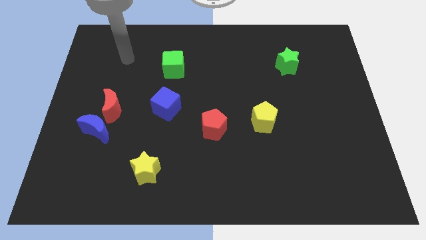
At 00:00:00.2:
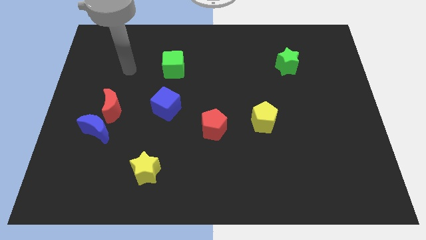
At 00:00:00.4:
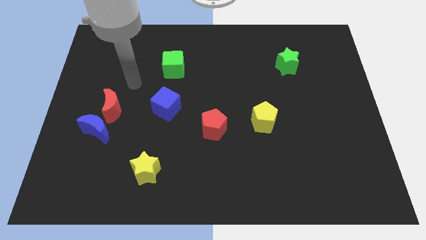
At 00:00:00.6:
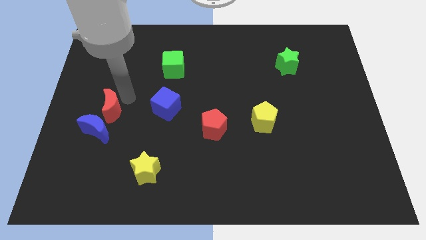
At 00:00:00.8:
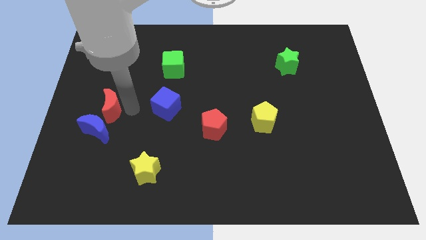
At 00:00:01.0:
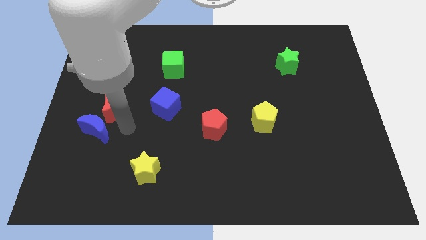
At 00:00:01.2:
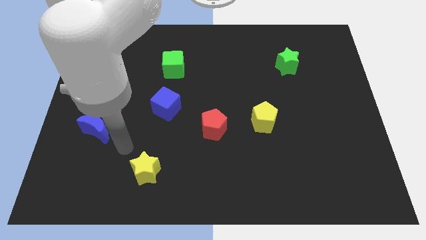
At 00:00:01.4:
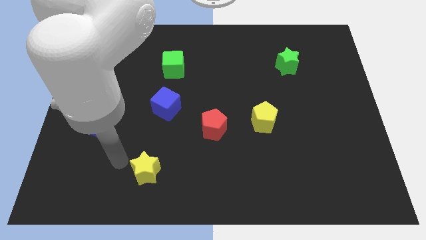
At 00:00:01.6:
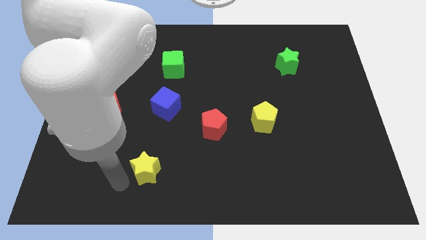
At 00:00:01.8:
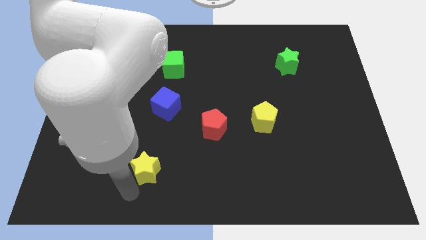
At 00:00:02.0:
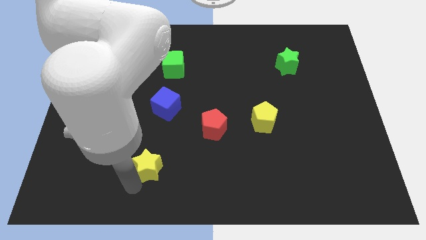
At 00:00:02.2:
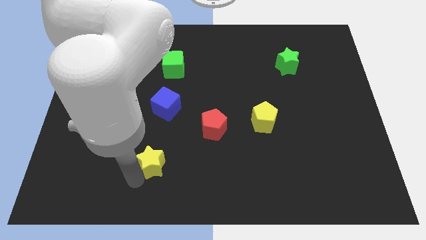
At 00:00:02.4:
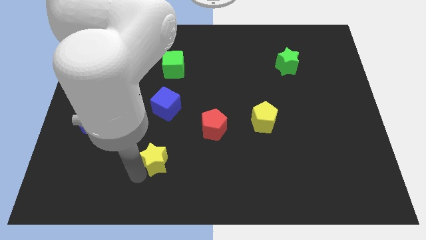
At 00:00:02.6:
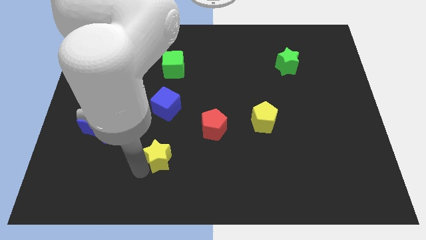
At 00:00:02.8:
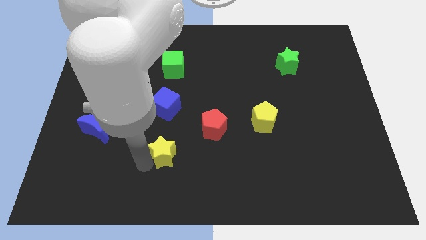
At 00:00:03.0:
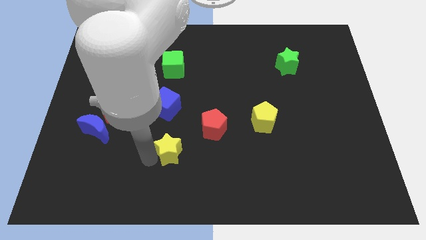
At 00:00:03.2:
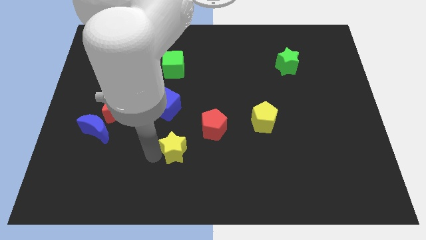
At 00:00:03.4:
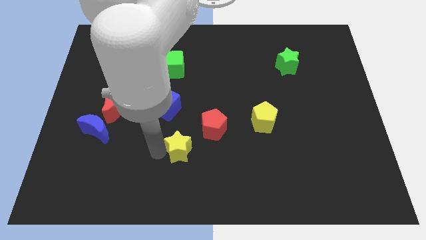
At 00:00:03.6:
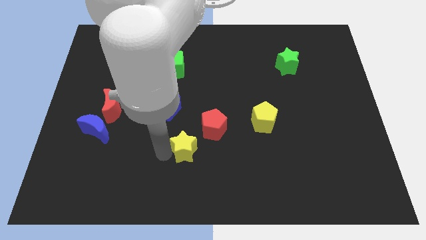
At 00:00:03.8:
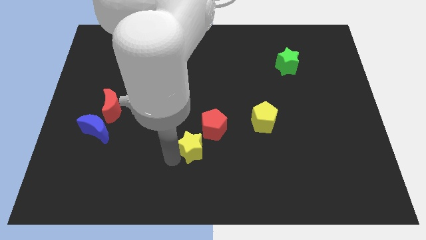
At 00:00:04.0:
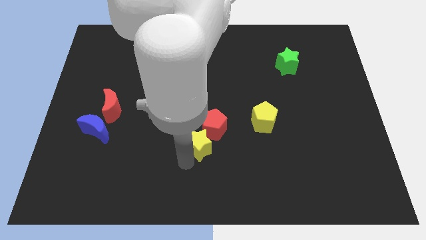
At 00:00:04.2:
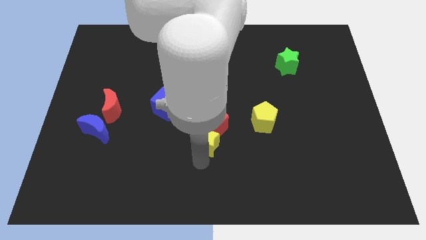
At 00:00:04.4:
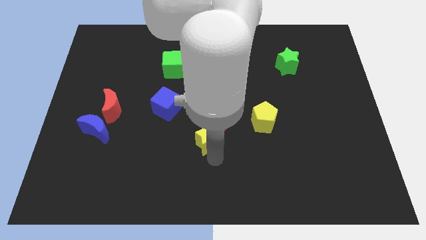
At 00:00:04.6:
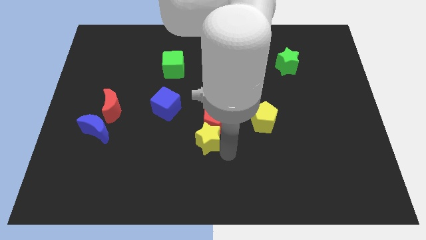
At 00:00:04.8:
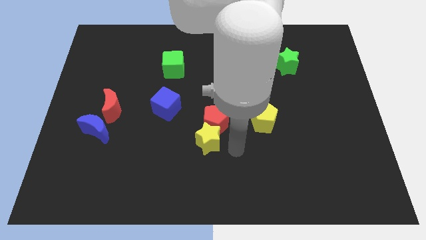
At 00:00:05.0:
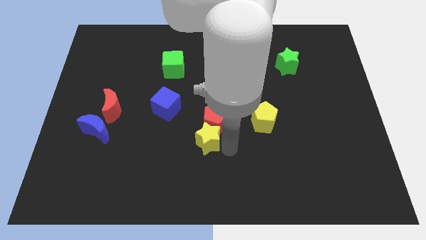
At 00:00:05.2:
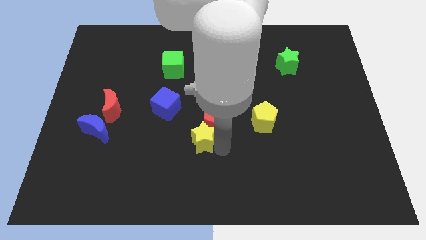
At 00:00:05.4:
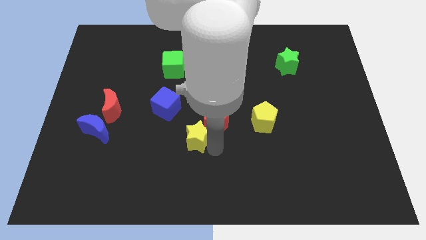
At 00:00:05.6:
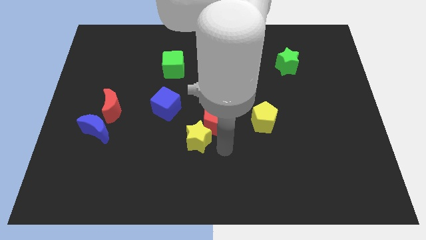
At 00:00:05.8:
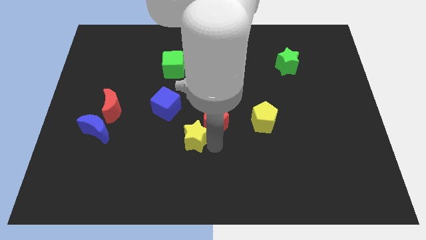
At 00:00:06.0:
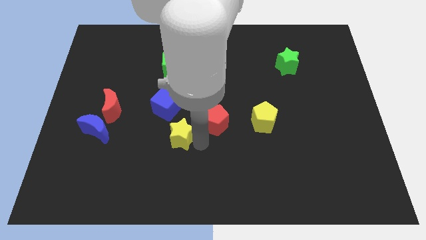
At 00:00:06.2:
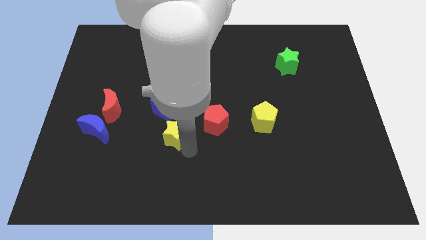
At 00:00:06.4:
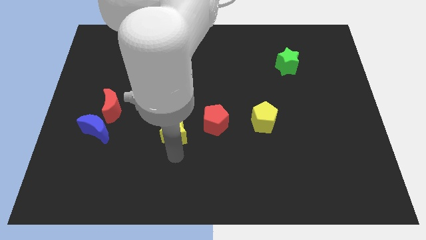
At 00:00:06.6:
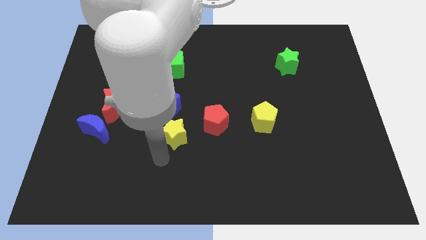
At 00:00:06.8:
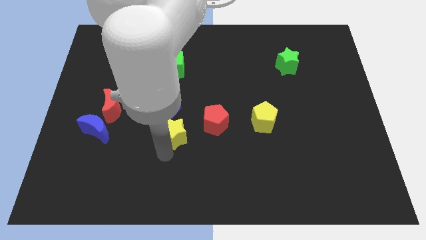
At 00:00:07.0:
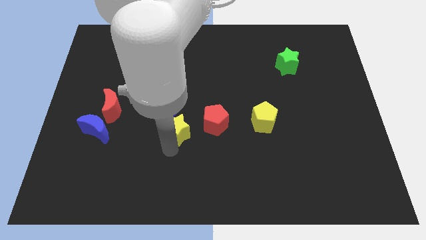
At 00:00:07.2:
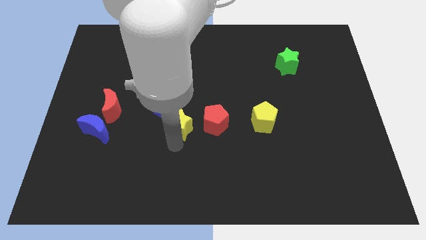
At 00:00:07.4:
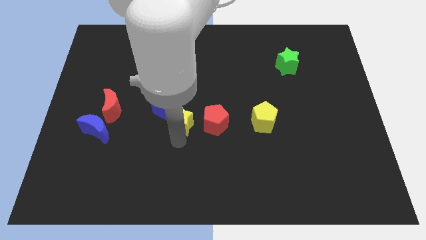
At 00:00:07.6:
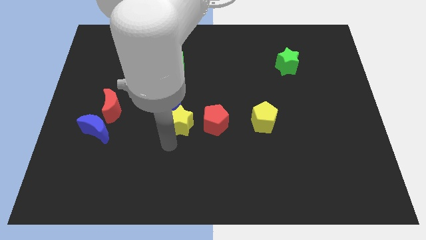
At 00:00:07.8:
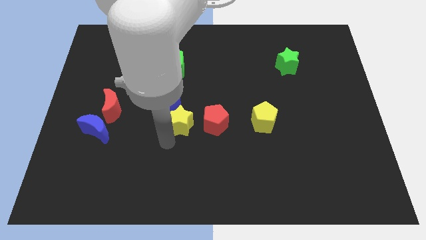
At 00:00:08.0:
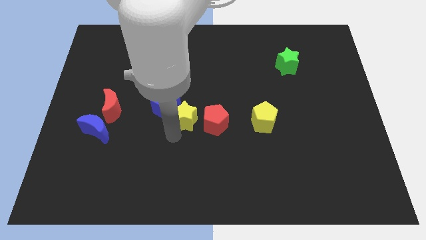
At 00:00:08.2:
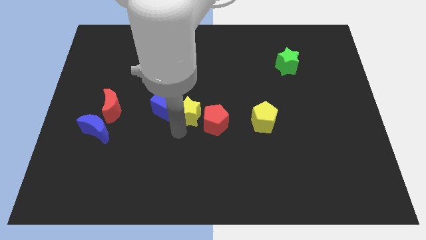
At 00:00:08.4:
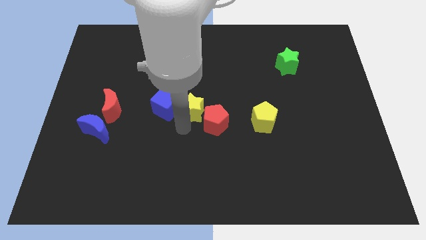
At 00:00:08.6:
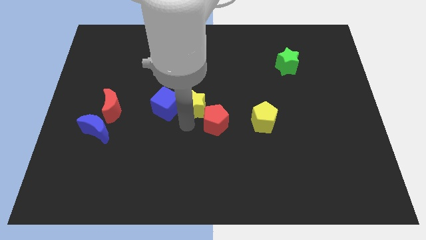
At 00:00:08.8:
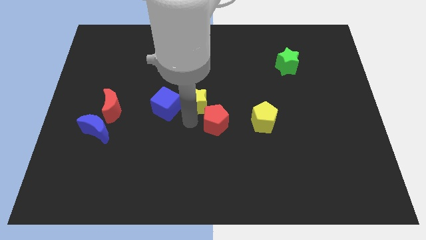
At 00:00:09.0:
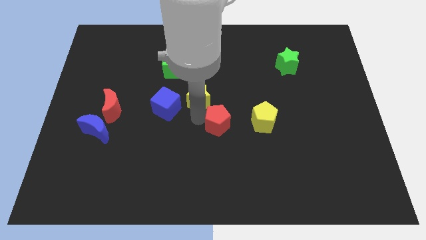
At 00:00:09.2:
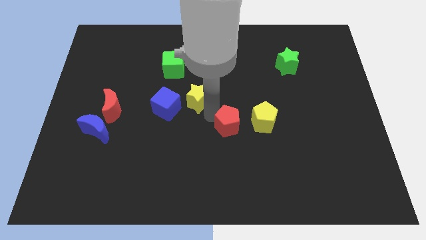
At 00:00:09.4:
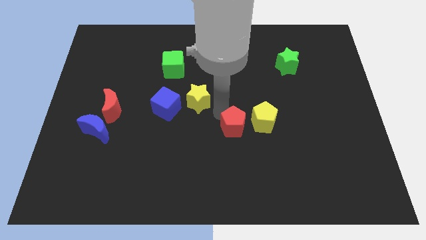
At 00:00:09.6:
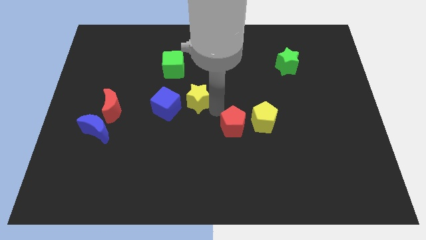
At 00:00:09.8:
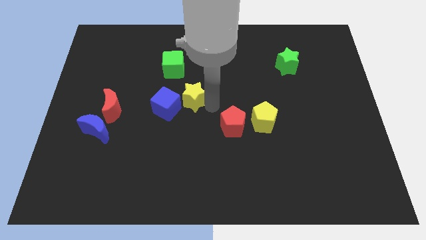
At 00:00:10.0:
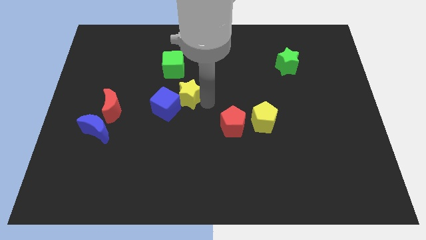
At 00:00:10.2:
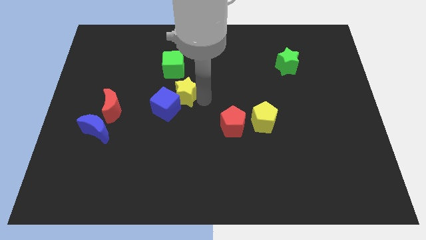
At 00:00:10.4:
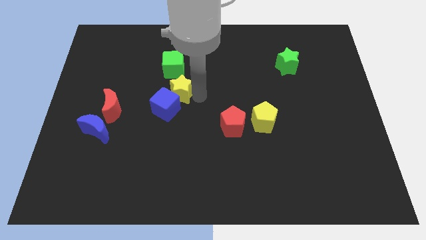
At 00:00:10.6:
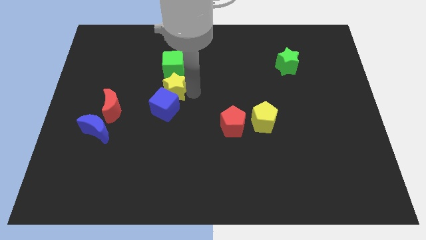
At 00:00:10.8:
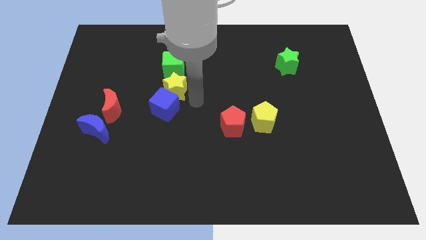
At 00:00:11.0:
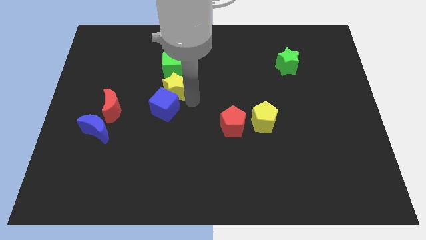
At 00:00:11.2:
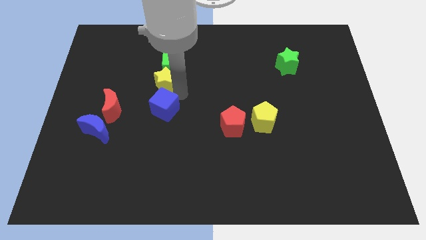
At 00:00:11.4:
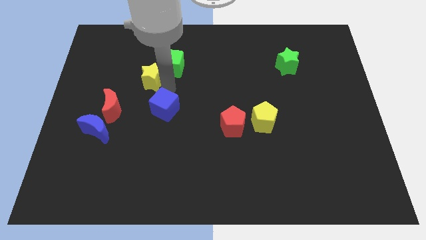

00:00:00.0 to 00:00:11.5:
slide the yellow star to the left side of the green cube

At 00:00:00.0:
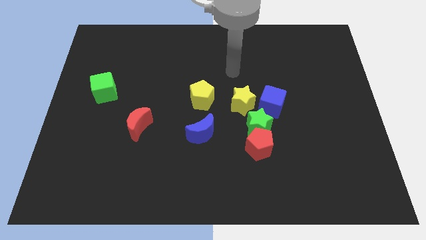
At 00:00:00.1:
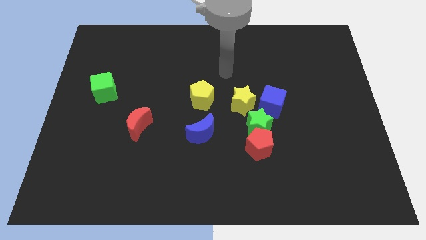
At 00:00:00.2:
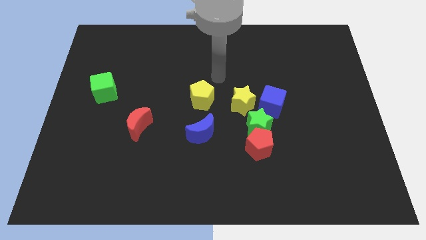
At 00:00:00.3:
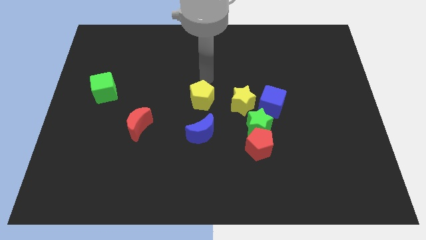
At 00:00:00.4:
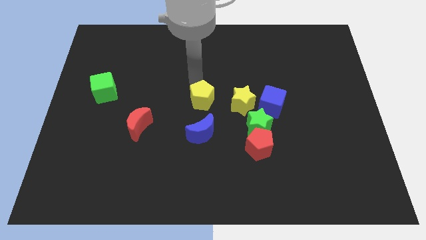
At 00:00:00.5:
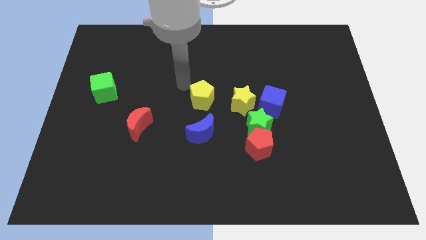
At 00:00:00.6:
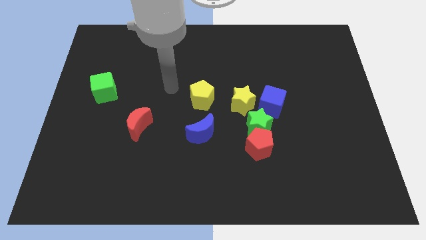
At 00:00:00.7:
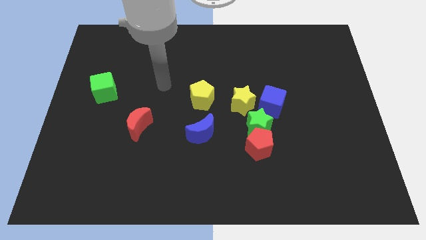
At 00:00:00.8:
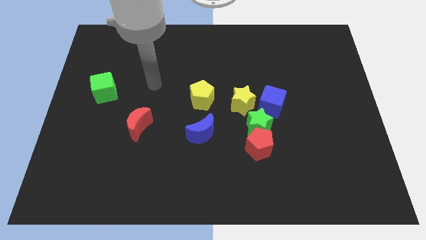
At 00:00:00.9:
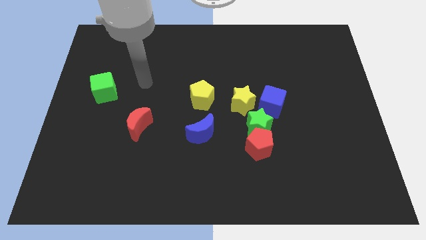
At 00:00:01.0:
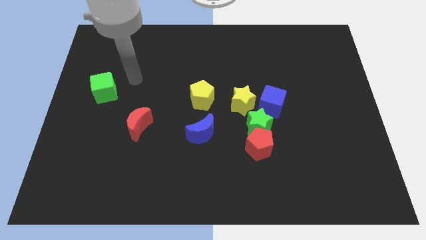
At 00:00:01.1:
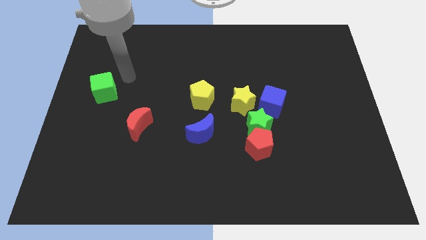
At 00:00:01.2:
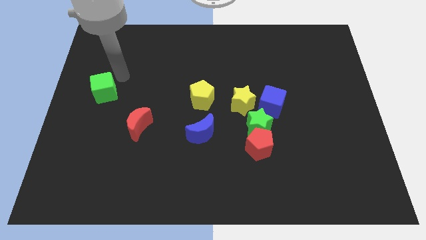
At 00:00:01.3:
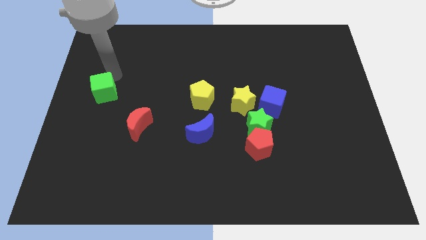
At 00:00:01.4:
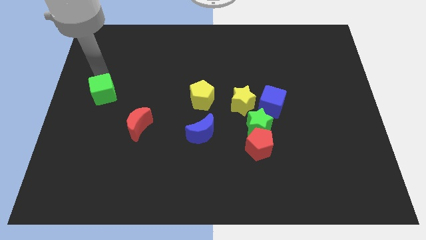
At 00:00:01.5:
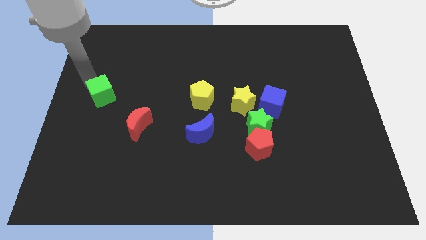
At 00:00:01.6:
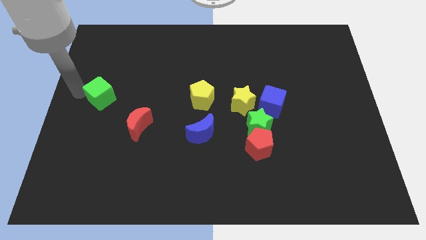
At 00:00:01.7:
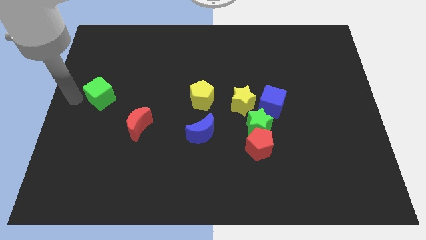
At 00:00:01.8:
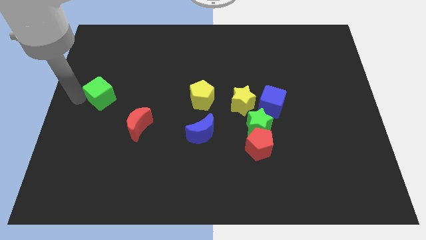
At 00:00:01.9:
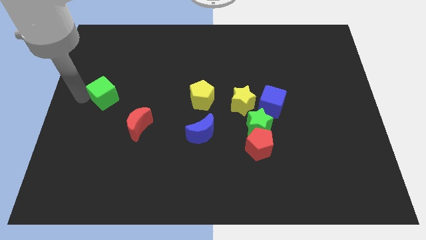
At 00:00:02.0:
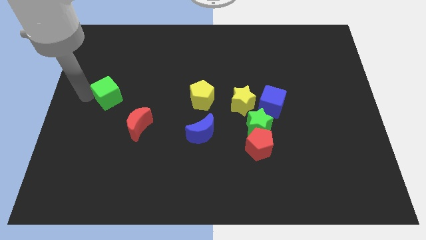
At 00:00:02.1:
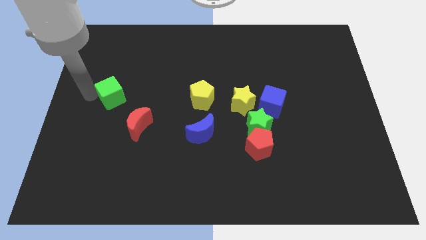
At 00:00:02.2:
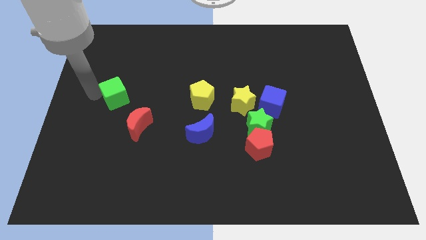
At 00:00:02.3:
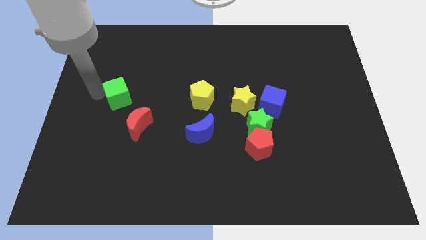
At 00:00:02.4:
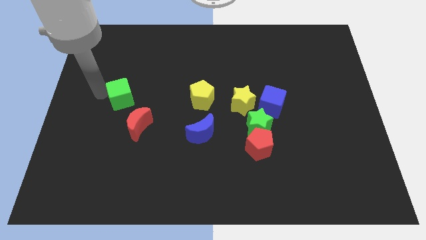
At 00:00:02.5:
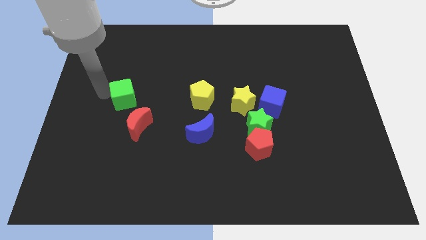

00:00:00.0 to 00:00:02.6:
move the green cube to the top side of the red moon

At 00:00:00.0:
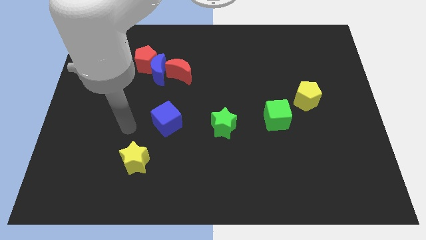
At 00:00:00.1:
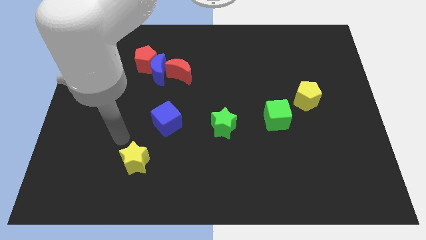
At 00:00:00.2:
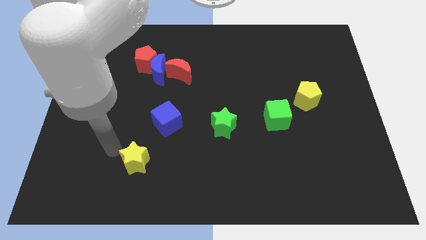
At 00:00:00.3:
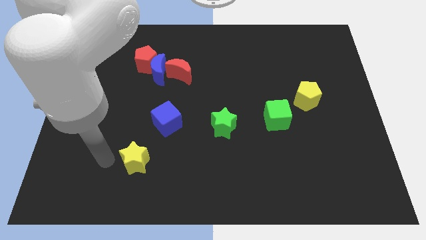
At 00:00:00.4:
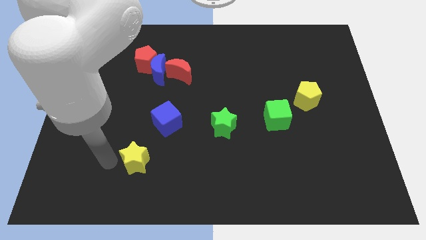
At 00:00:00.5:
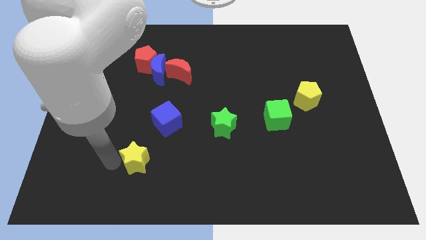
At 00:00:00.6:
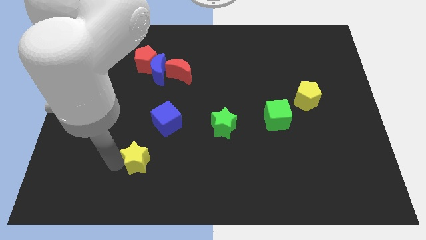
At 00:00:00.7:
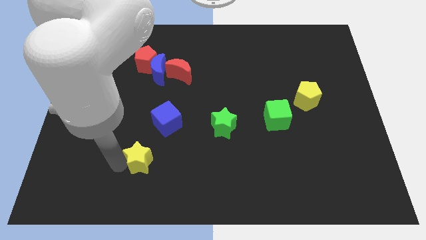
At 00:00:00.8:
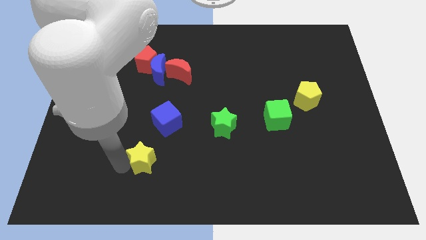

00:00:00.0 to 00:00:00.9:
move the yellow star to the bottom side of the blue cube
